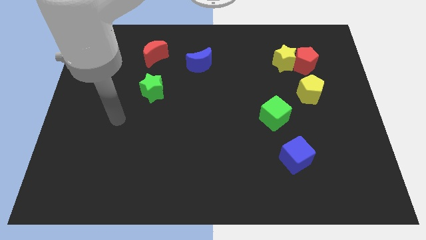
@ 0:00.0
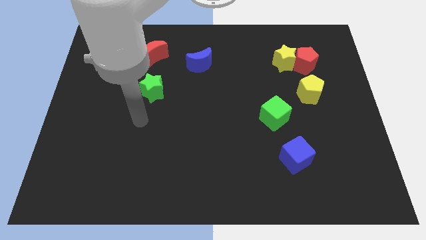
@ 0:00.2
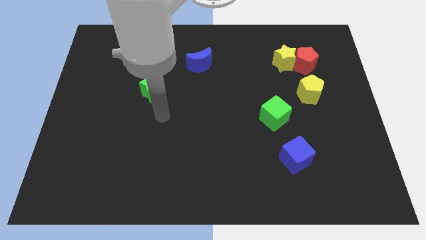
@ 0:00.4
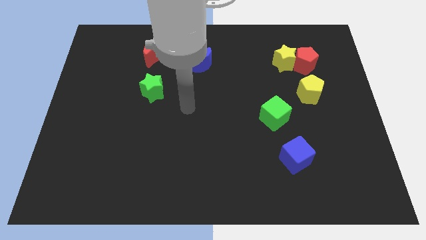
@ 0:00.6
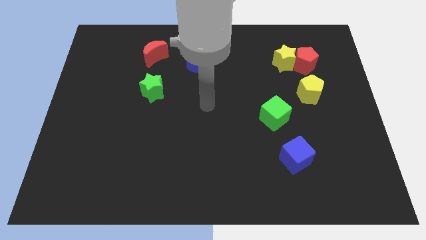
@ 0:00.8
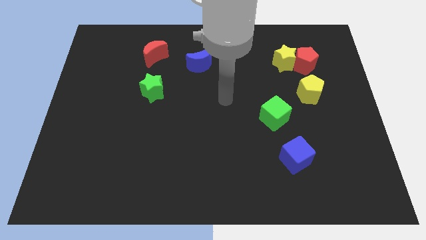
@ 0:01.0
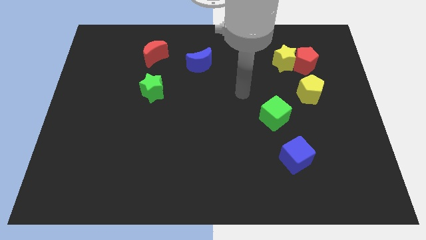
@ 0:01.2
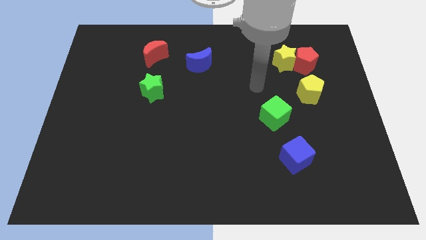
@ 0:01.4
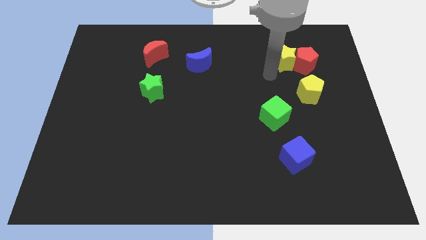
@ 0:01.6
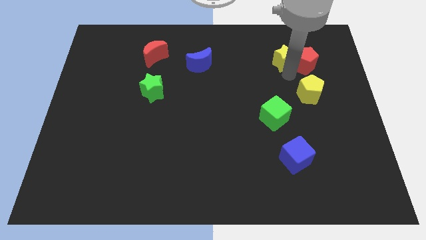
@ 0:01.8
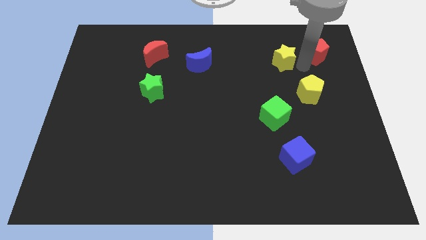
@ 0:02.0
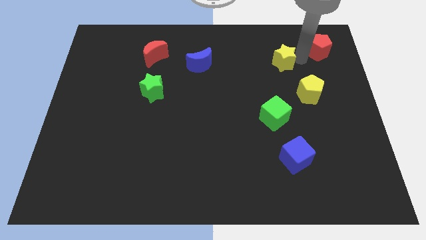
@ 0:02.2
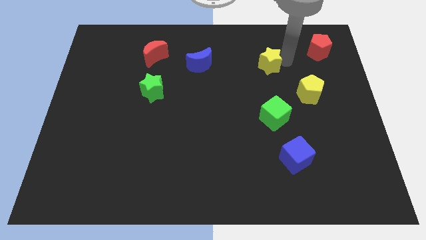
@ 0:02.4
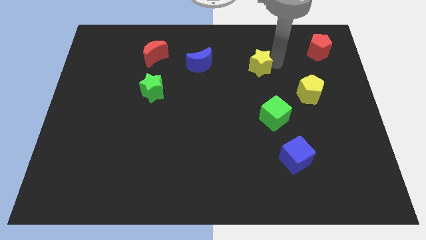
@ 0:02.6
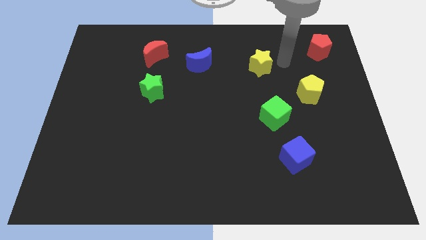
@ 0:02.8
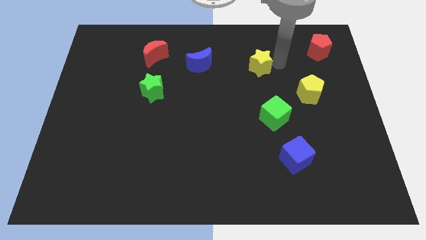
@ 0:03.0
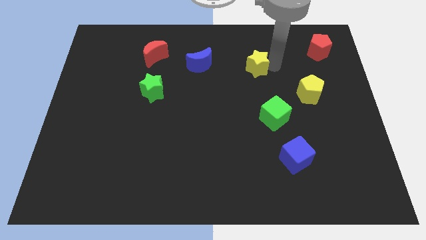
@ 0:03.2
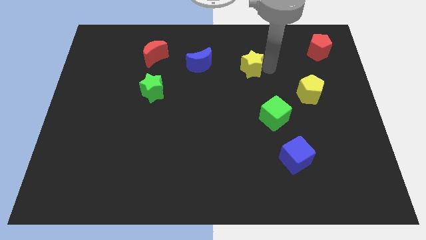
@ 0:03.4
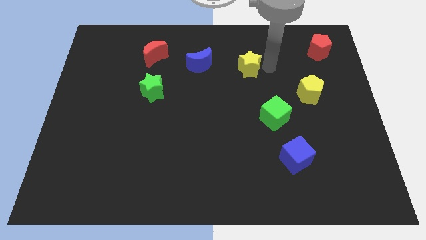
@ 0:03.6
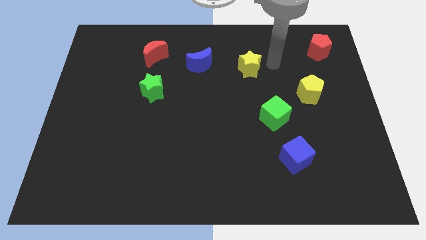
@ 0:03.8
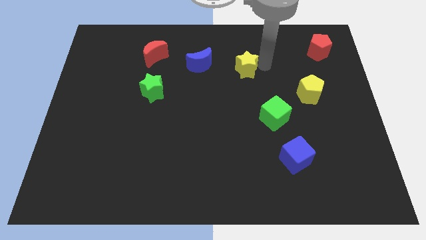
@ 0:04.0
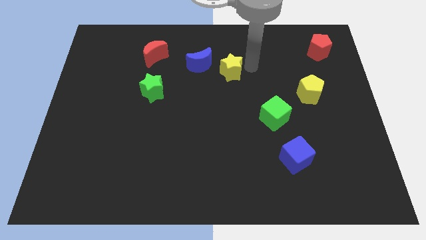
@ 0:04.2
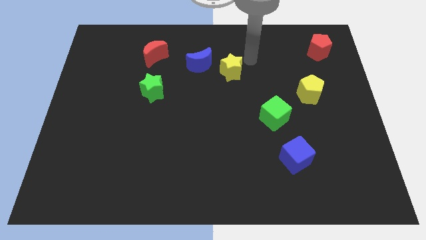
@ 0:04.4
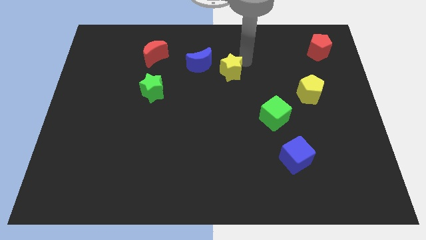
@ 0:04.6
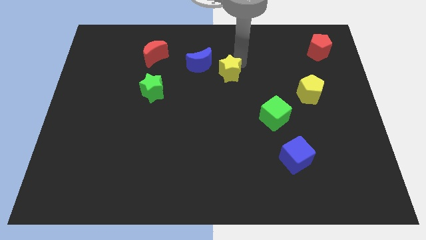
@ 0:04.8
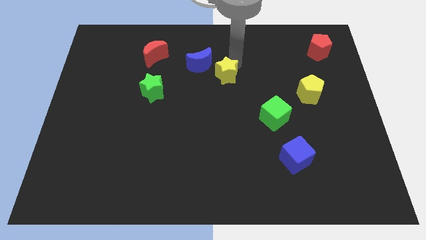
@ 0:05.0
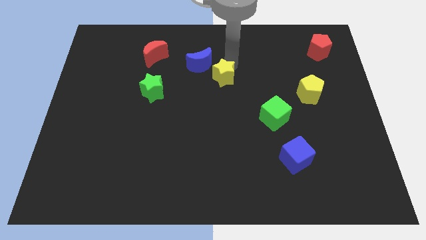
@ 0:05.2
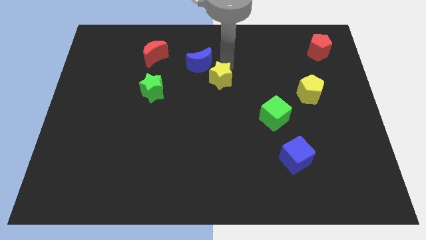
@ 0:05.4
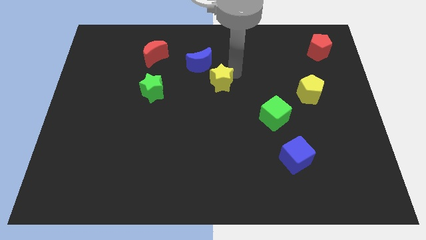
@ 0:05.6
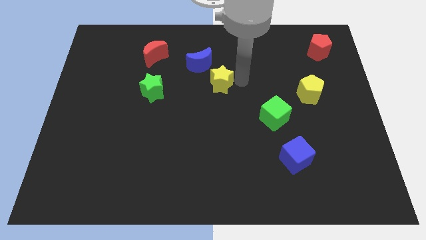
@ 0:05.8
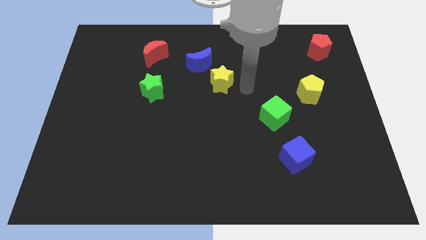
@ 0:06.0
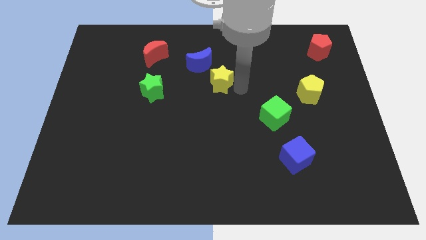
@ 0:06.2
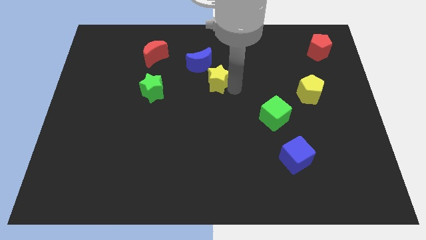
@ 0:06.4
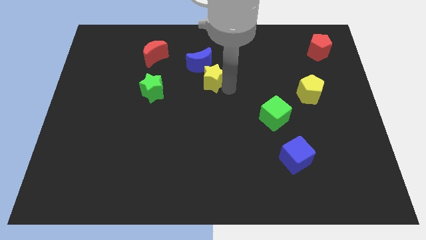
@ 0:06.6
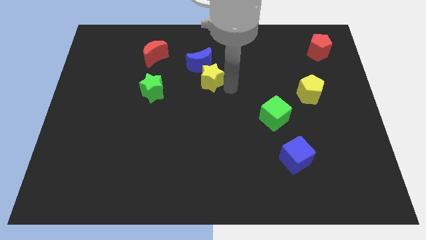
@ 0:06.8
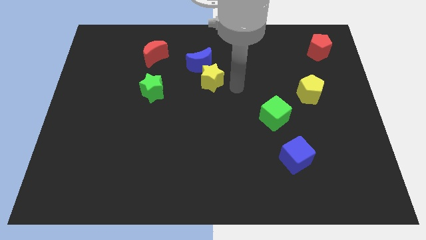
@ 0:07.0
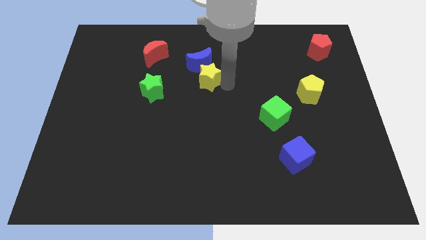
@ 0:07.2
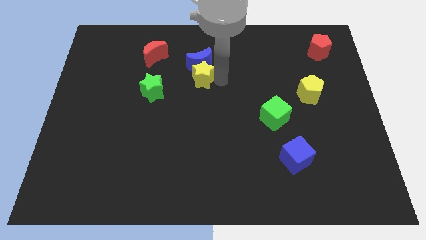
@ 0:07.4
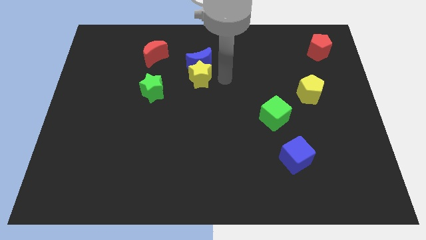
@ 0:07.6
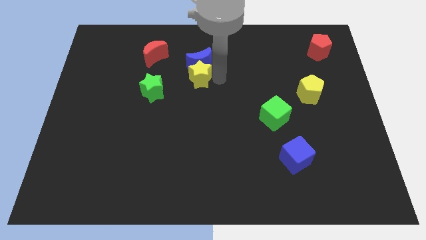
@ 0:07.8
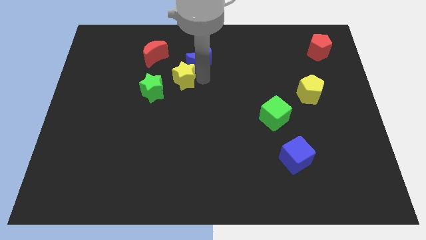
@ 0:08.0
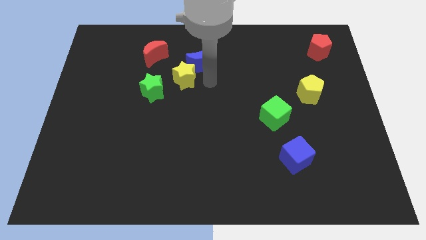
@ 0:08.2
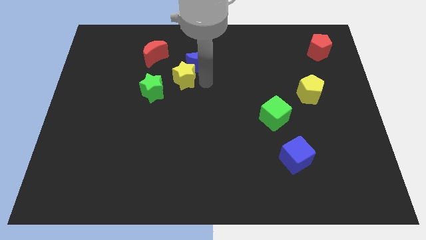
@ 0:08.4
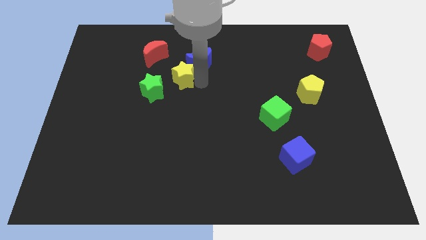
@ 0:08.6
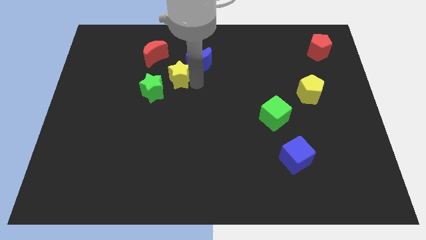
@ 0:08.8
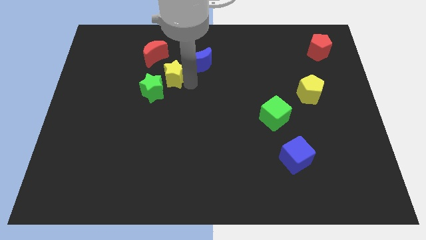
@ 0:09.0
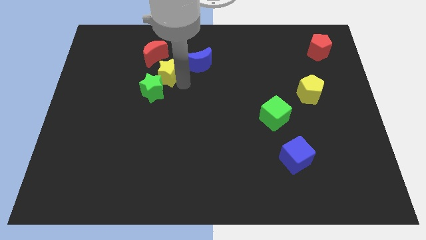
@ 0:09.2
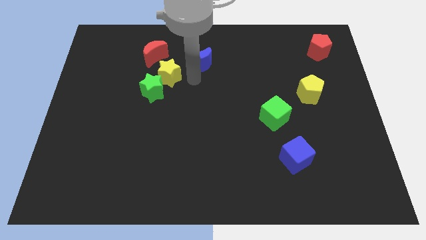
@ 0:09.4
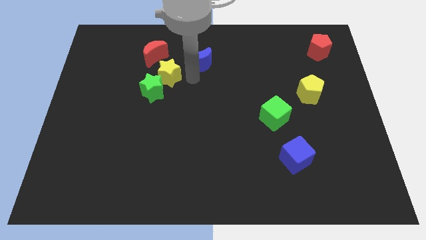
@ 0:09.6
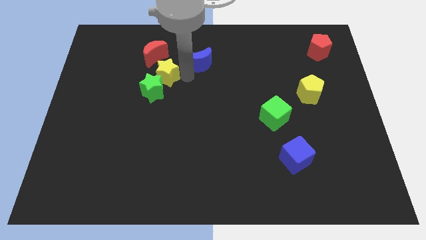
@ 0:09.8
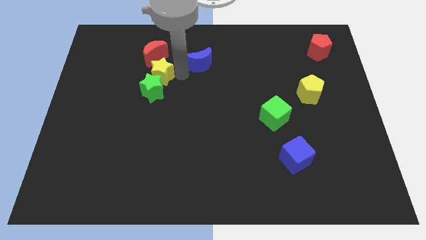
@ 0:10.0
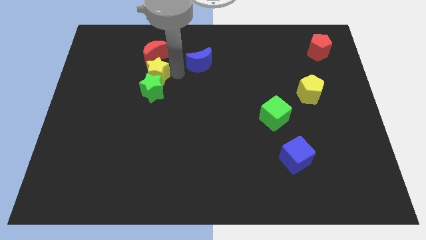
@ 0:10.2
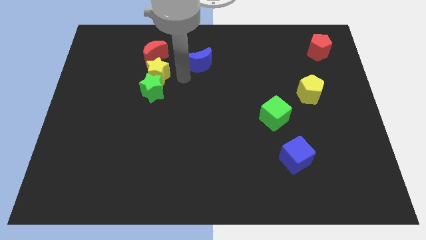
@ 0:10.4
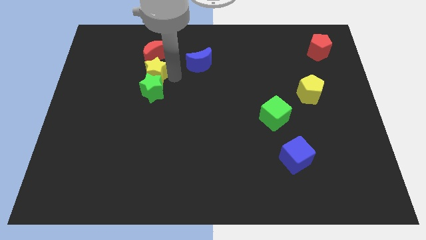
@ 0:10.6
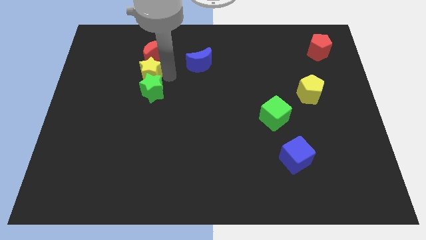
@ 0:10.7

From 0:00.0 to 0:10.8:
push the yellow star to the bottom left of the red moon

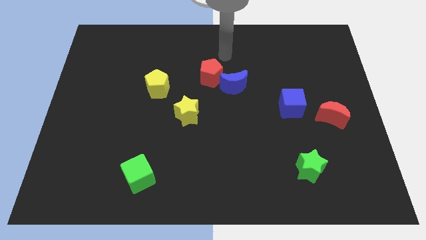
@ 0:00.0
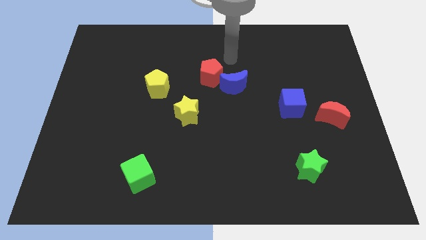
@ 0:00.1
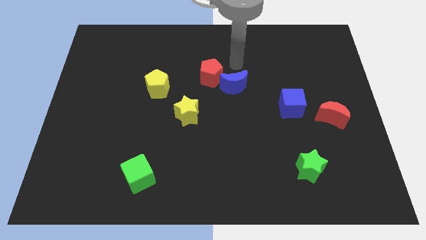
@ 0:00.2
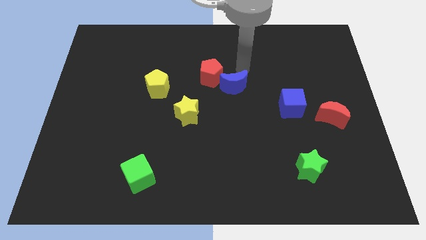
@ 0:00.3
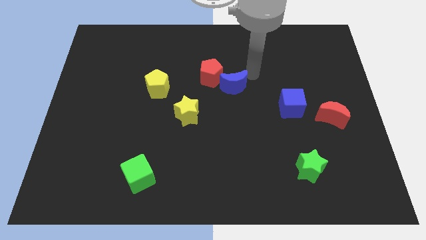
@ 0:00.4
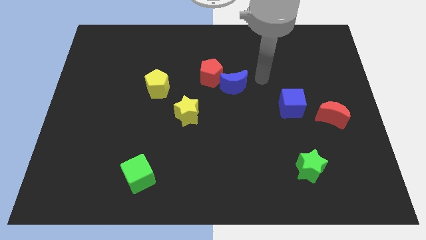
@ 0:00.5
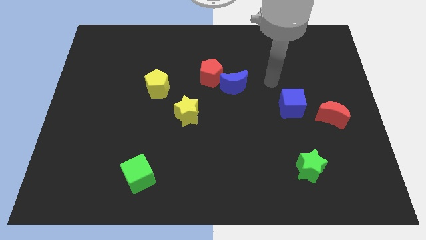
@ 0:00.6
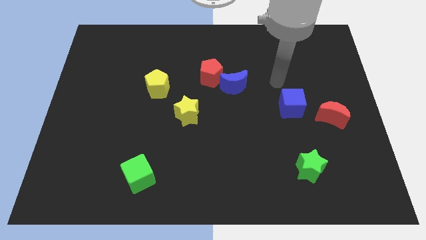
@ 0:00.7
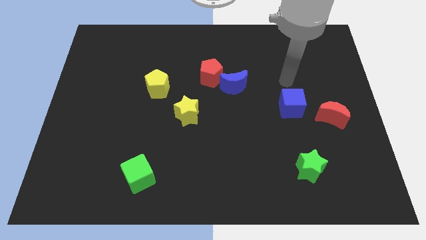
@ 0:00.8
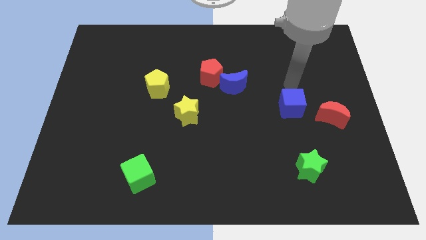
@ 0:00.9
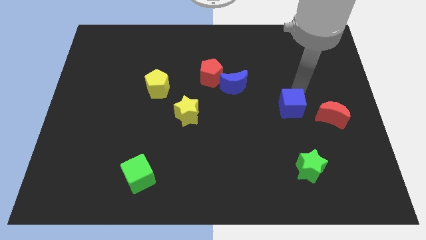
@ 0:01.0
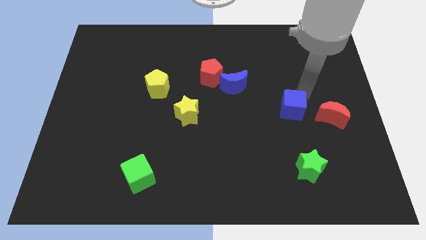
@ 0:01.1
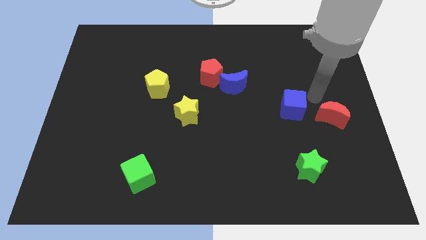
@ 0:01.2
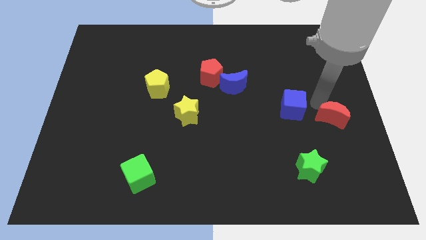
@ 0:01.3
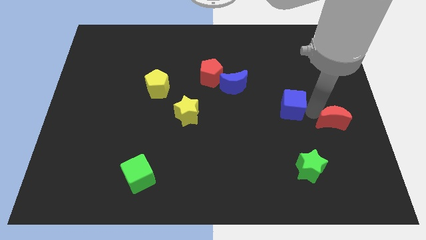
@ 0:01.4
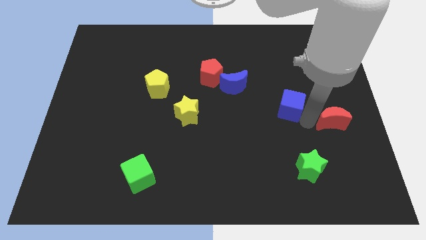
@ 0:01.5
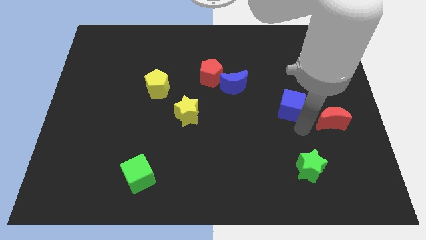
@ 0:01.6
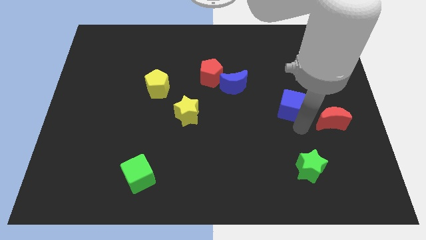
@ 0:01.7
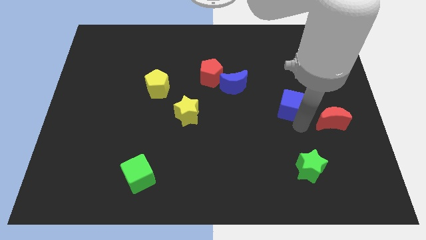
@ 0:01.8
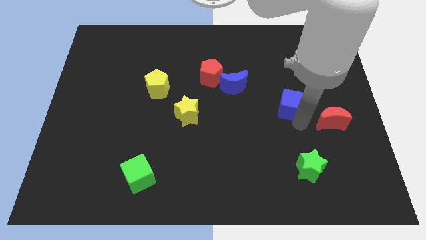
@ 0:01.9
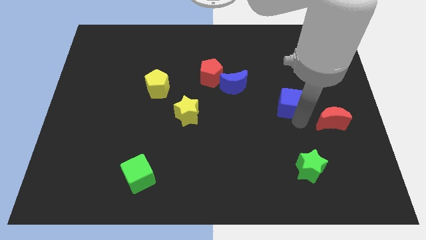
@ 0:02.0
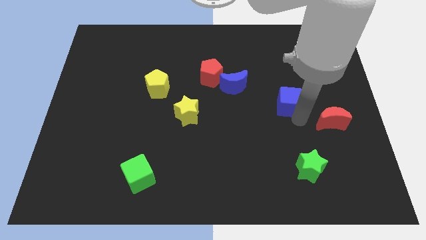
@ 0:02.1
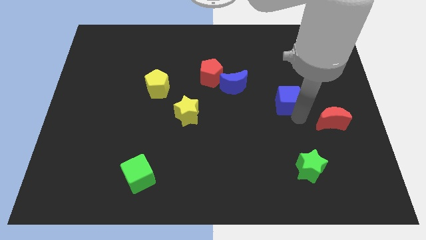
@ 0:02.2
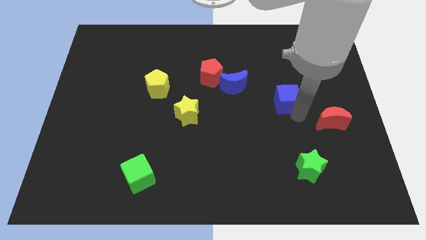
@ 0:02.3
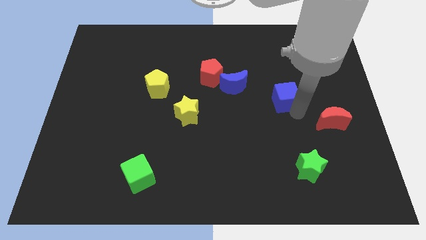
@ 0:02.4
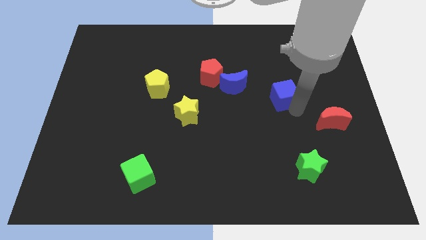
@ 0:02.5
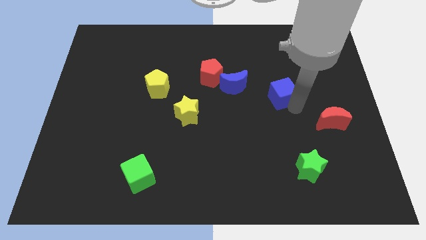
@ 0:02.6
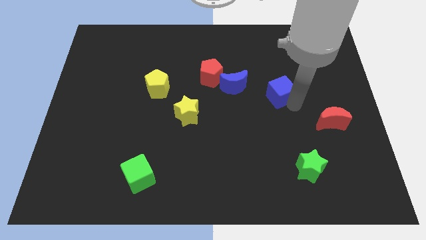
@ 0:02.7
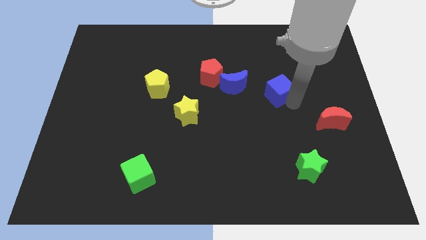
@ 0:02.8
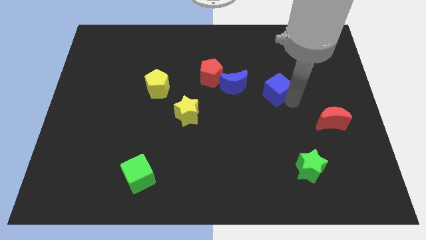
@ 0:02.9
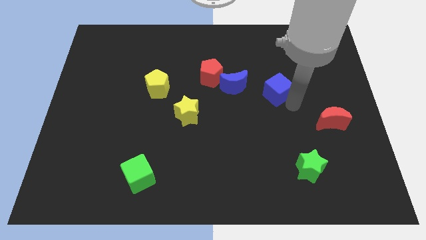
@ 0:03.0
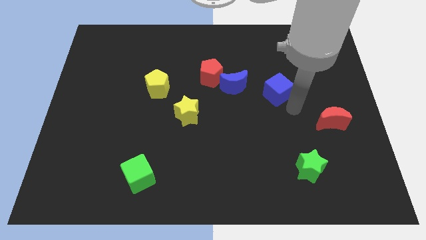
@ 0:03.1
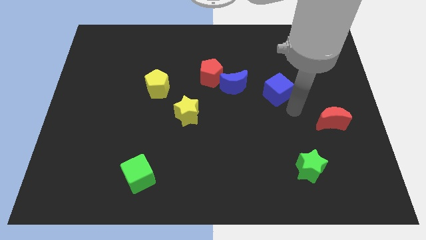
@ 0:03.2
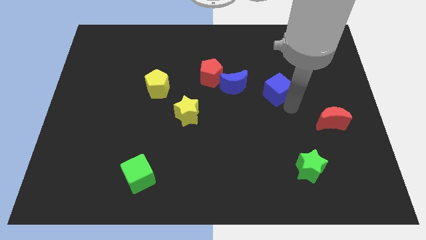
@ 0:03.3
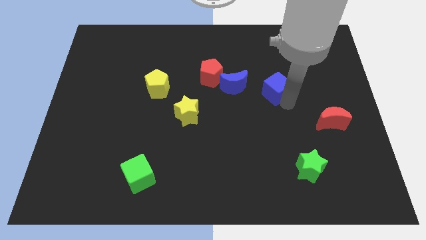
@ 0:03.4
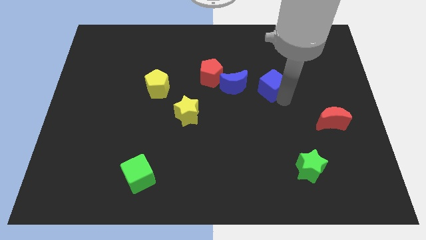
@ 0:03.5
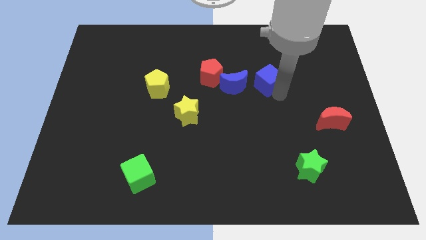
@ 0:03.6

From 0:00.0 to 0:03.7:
put the blue cube to the right of the red pentagon
